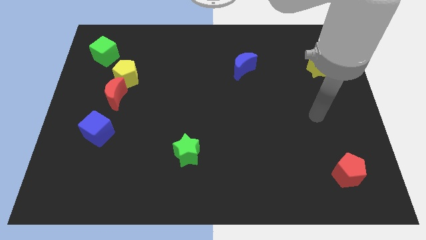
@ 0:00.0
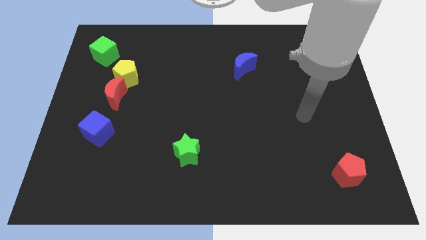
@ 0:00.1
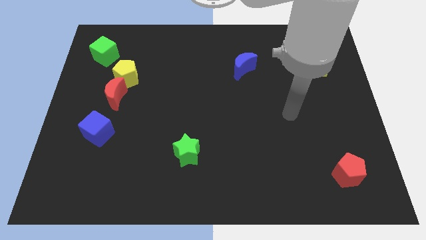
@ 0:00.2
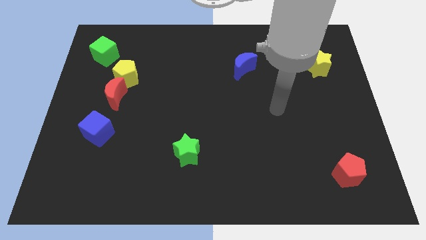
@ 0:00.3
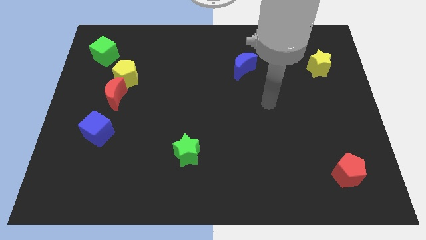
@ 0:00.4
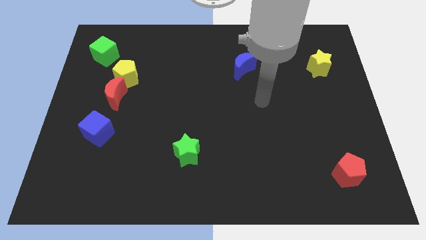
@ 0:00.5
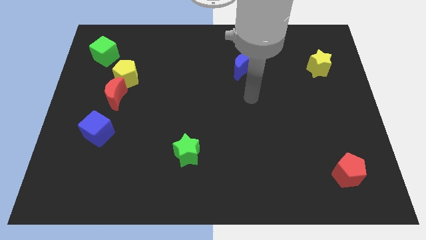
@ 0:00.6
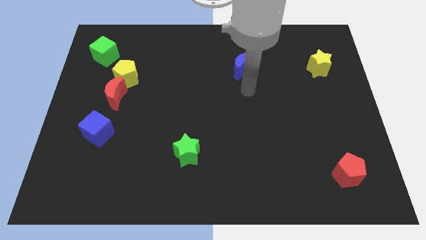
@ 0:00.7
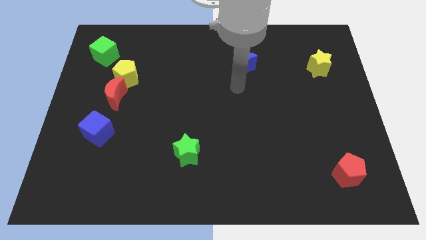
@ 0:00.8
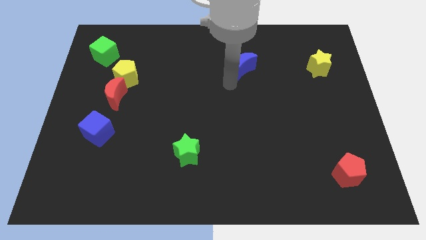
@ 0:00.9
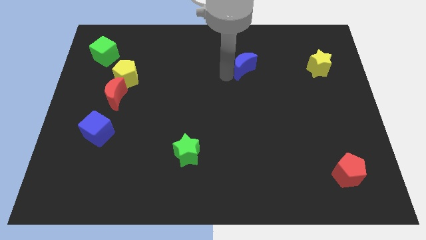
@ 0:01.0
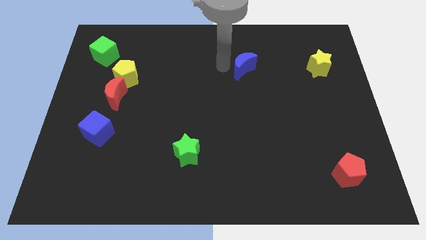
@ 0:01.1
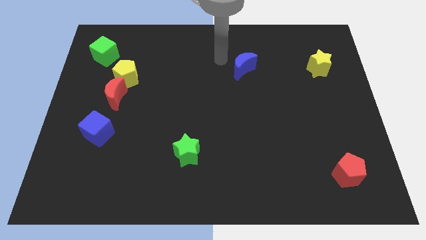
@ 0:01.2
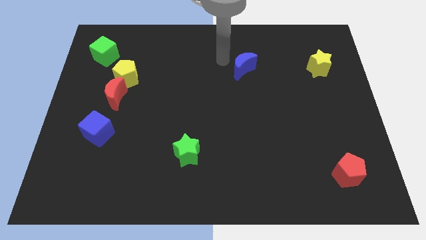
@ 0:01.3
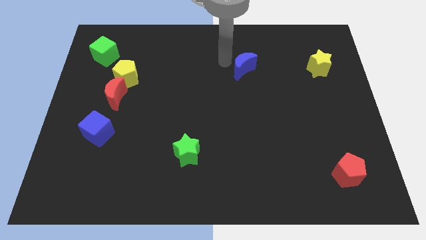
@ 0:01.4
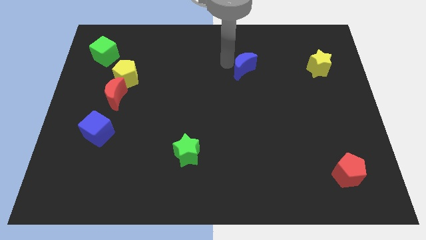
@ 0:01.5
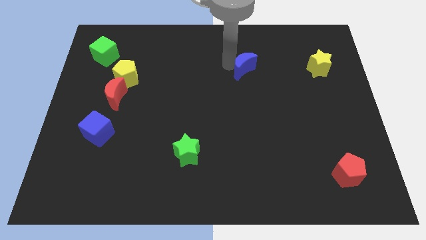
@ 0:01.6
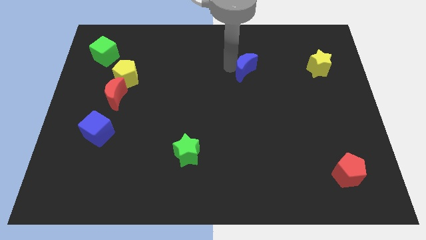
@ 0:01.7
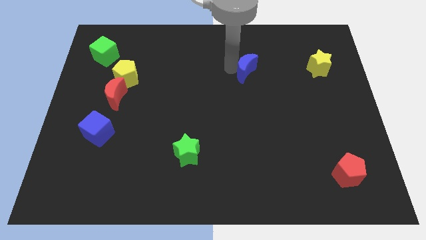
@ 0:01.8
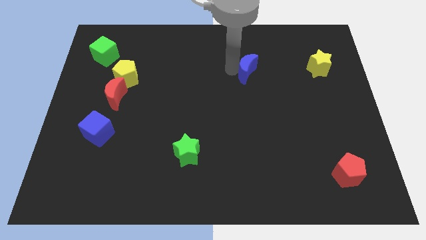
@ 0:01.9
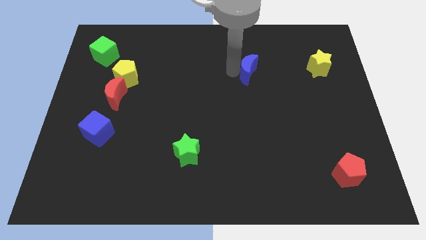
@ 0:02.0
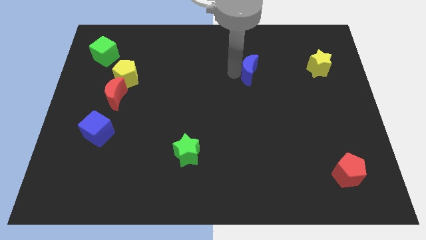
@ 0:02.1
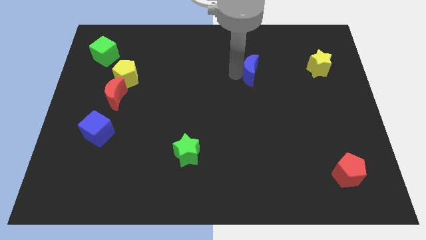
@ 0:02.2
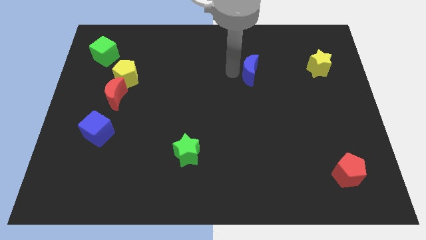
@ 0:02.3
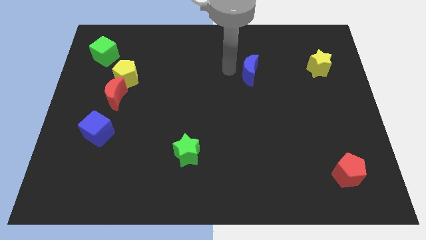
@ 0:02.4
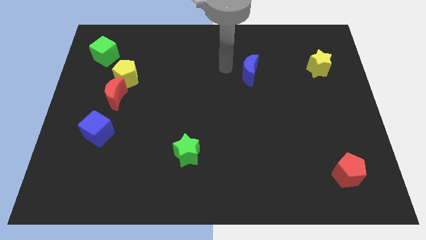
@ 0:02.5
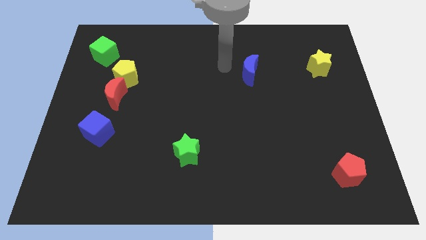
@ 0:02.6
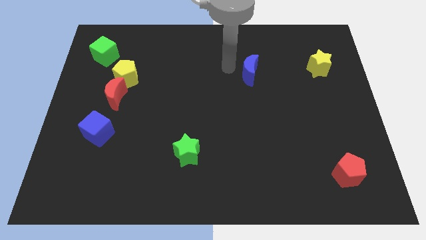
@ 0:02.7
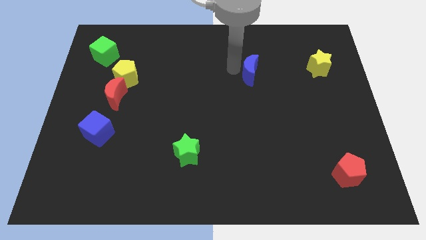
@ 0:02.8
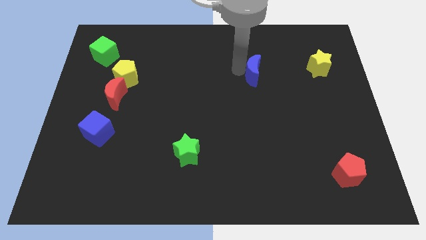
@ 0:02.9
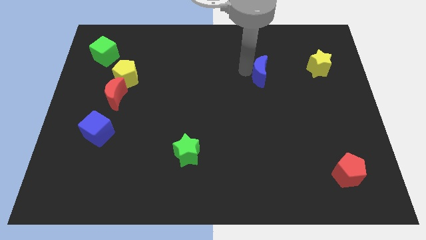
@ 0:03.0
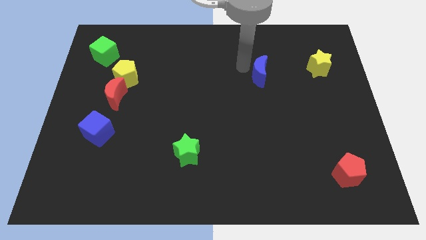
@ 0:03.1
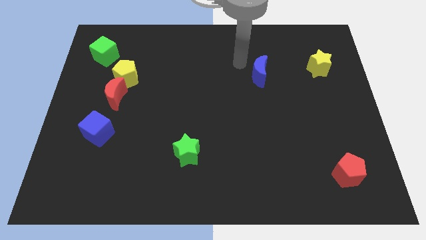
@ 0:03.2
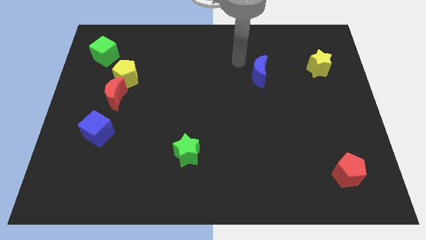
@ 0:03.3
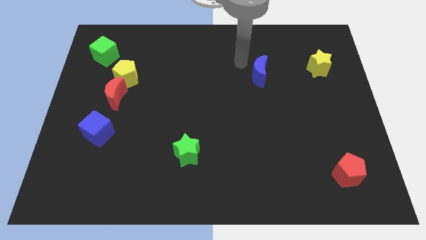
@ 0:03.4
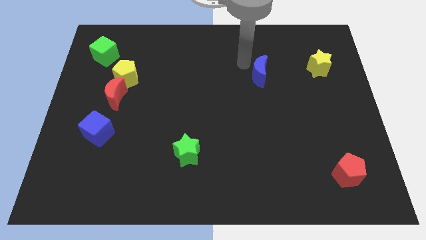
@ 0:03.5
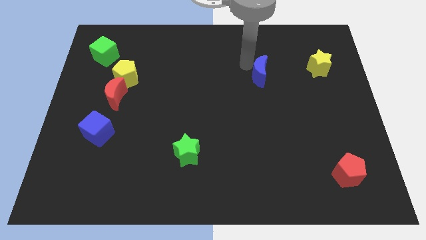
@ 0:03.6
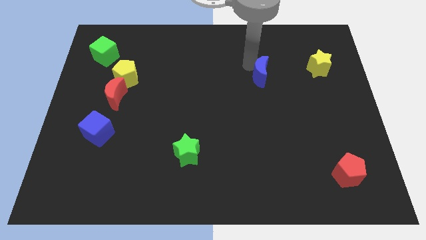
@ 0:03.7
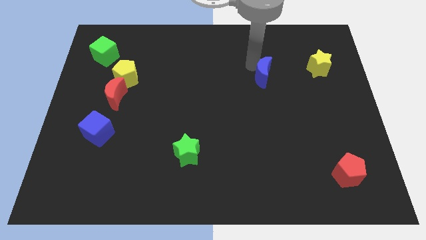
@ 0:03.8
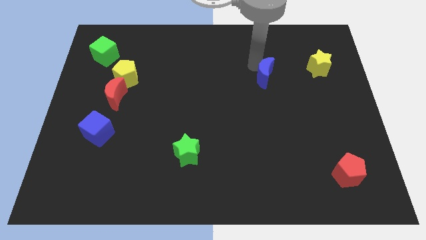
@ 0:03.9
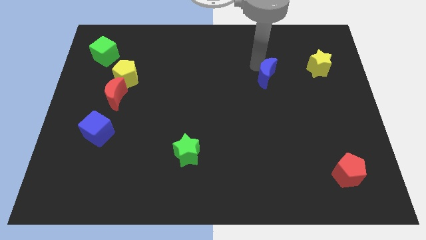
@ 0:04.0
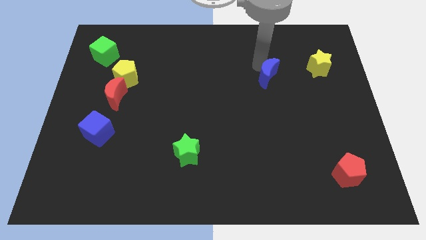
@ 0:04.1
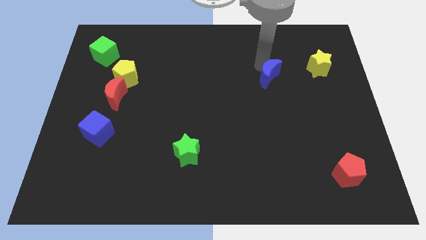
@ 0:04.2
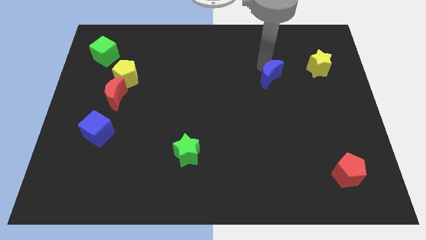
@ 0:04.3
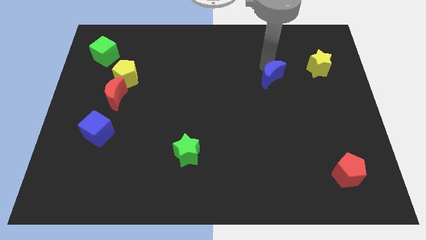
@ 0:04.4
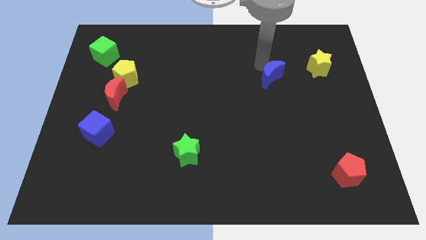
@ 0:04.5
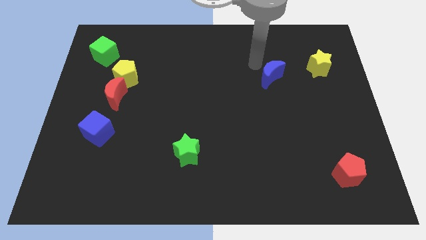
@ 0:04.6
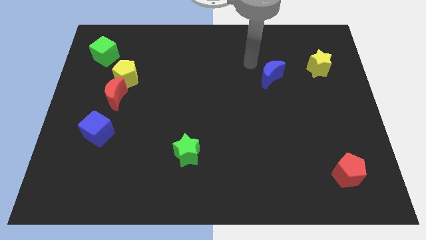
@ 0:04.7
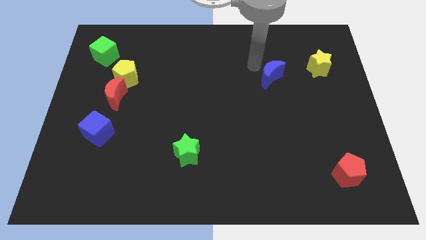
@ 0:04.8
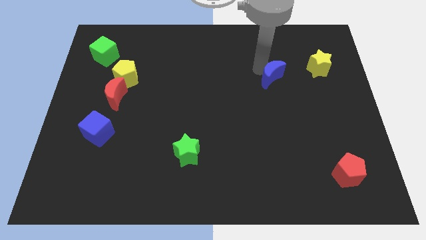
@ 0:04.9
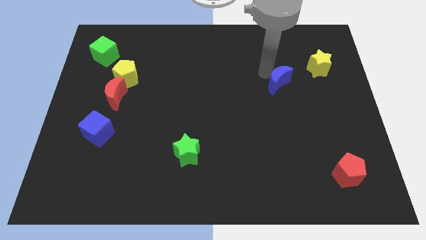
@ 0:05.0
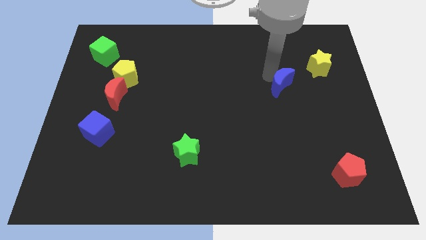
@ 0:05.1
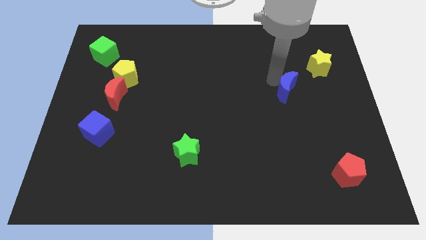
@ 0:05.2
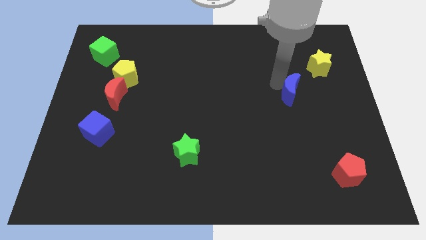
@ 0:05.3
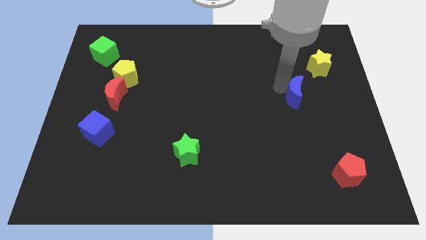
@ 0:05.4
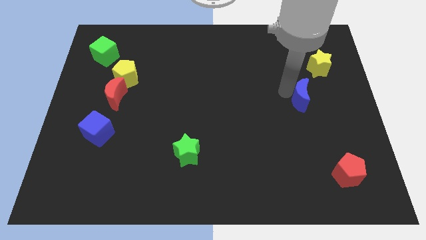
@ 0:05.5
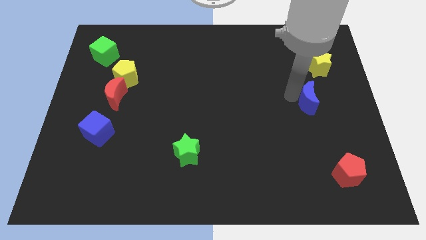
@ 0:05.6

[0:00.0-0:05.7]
put the blue moon to the bottom of the yellow star

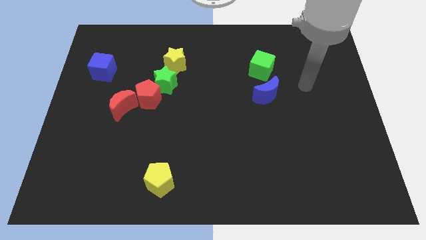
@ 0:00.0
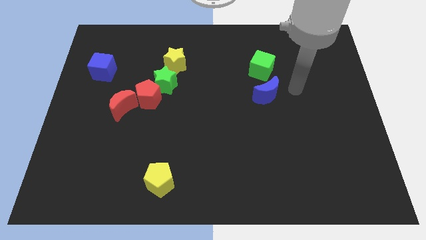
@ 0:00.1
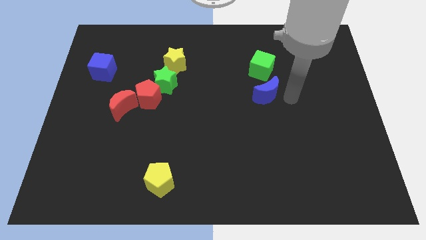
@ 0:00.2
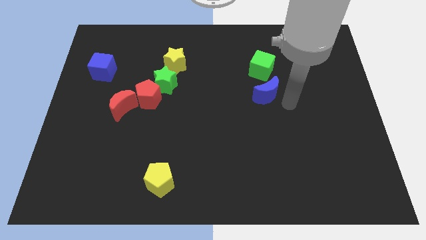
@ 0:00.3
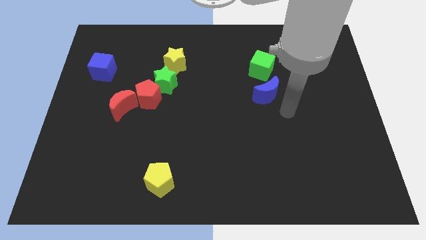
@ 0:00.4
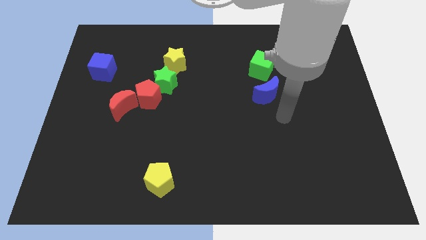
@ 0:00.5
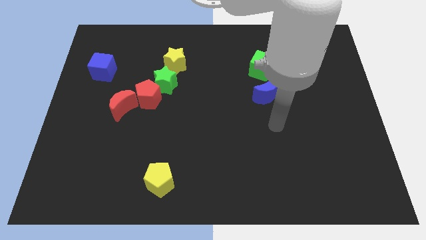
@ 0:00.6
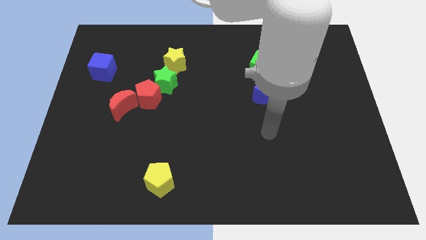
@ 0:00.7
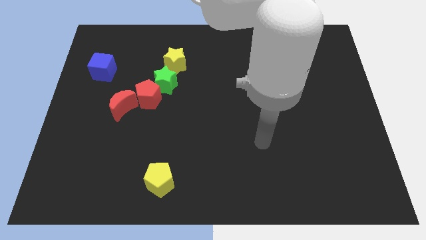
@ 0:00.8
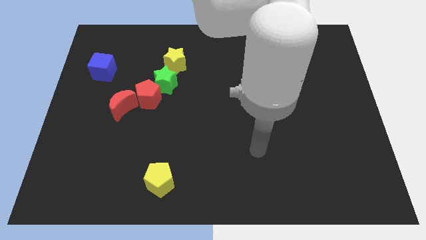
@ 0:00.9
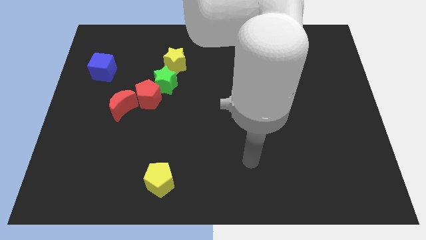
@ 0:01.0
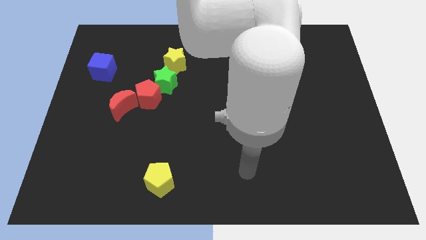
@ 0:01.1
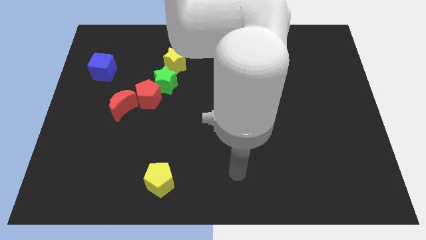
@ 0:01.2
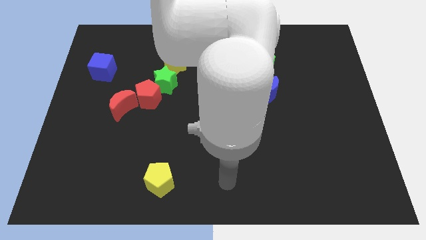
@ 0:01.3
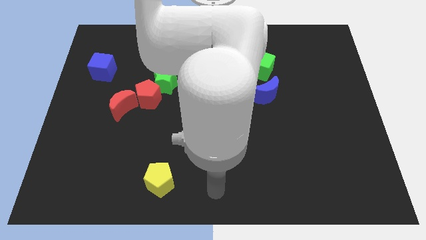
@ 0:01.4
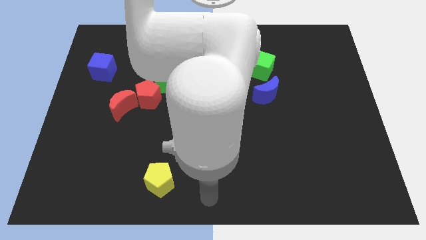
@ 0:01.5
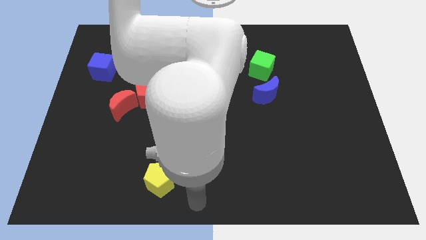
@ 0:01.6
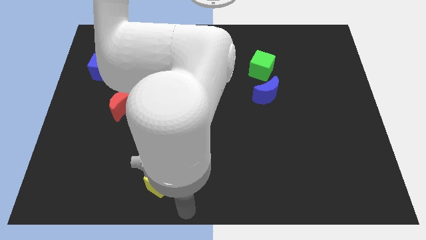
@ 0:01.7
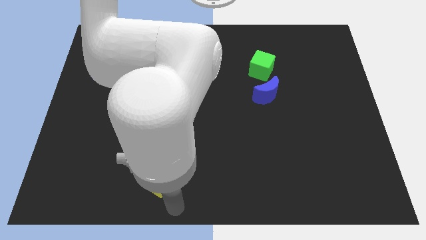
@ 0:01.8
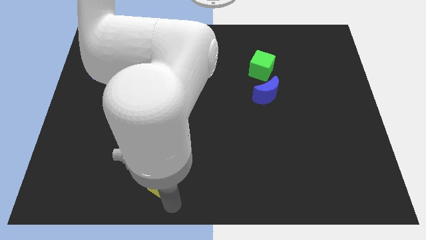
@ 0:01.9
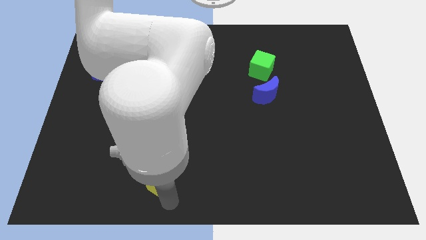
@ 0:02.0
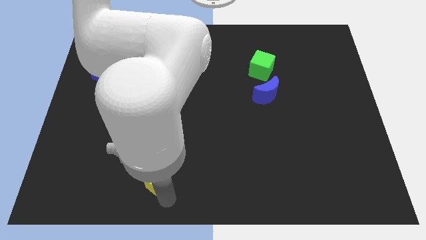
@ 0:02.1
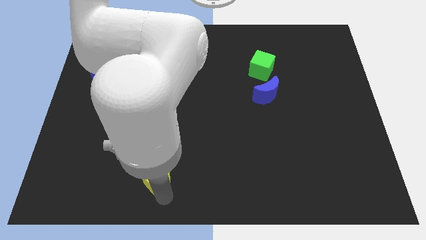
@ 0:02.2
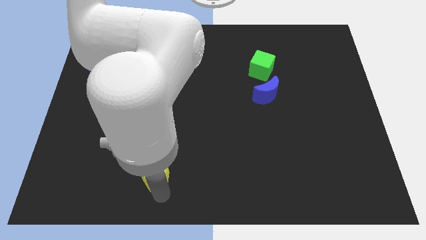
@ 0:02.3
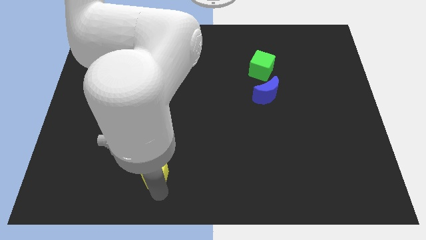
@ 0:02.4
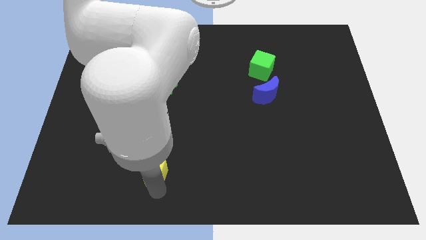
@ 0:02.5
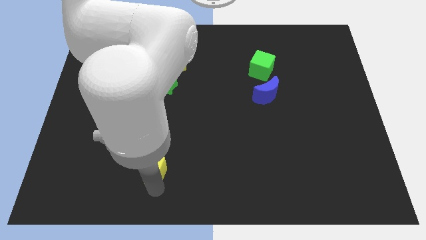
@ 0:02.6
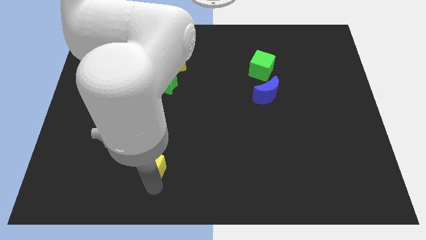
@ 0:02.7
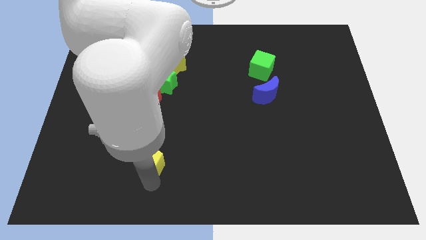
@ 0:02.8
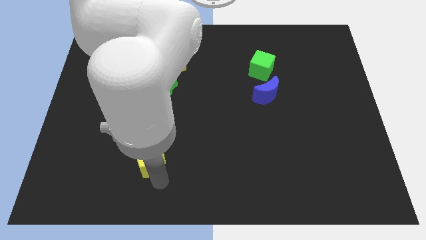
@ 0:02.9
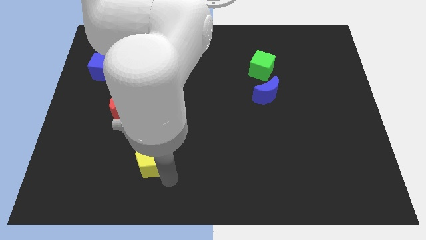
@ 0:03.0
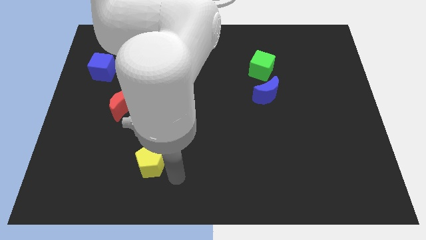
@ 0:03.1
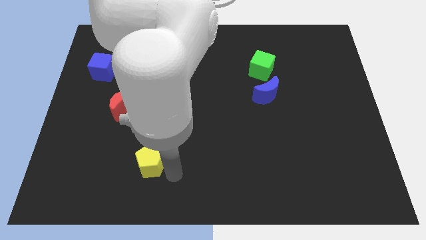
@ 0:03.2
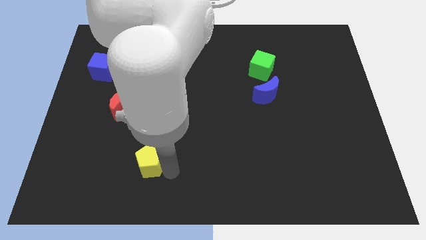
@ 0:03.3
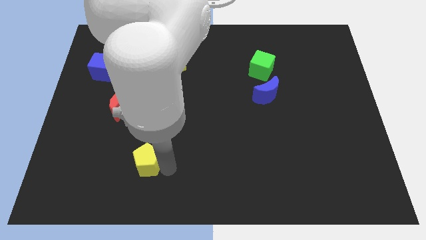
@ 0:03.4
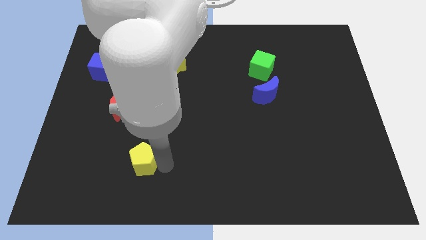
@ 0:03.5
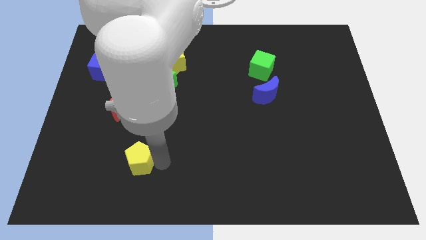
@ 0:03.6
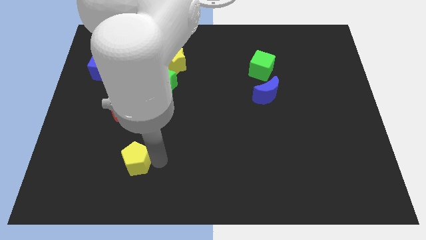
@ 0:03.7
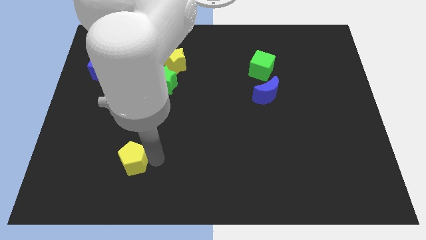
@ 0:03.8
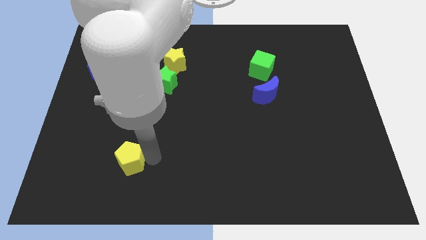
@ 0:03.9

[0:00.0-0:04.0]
move the yellow pentagon below the red moon
